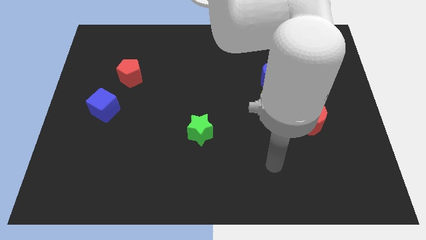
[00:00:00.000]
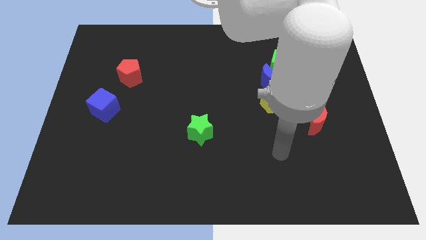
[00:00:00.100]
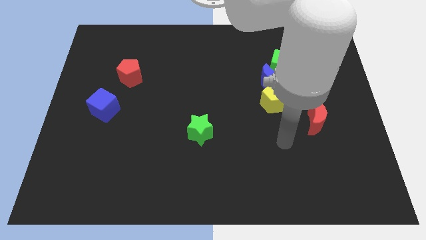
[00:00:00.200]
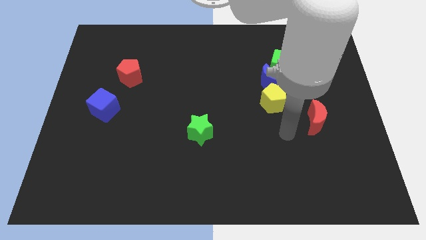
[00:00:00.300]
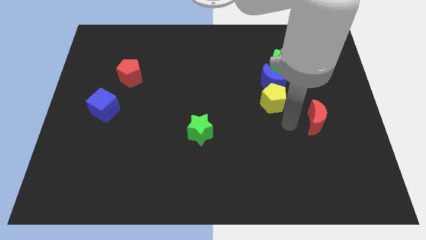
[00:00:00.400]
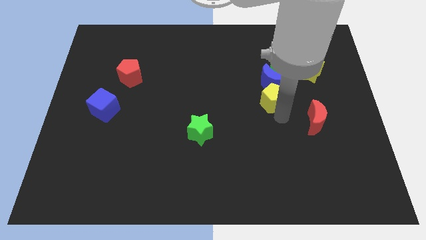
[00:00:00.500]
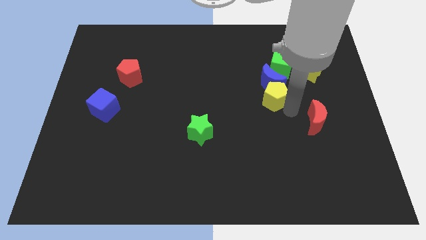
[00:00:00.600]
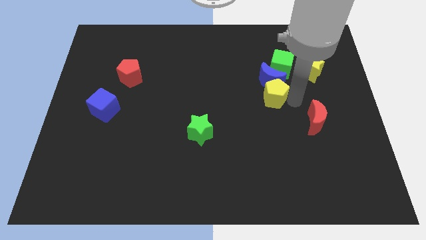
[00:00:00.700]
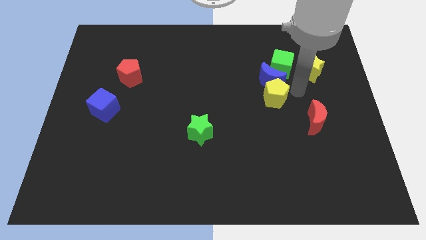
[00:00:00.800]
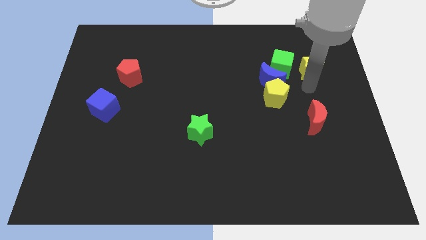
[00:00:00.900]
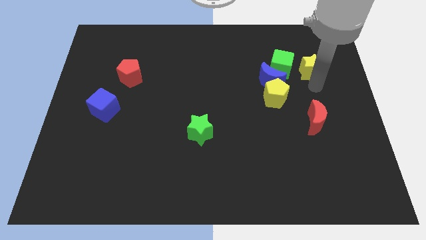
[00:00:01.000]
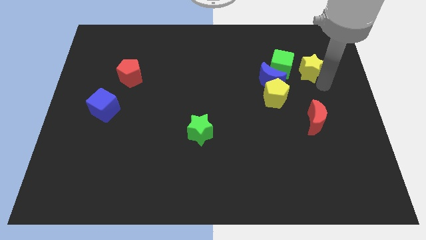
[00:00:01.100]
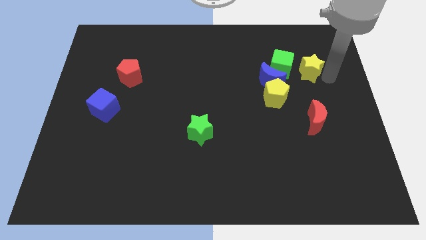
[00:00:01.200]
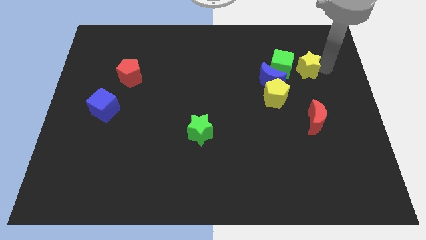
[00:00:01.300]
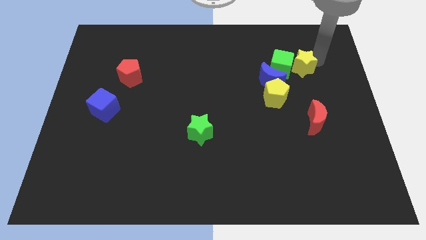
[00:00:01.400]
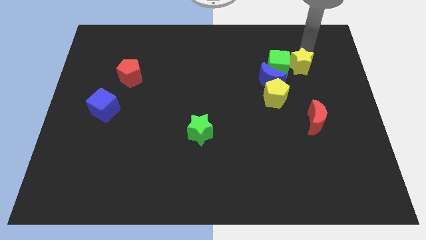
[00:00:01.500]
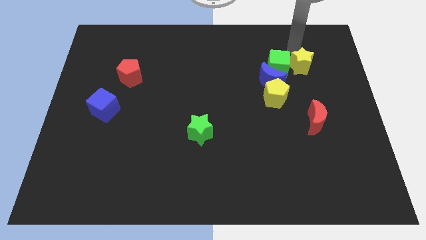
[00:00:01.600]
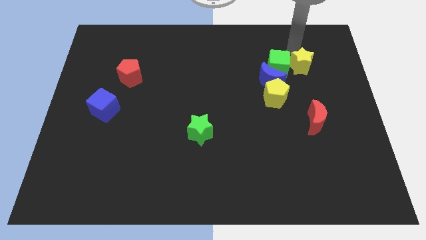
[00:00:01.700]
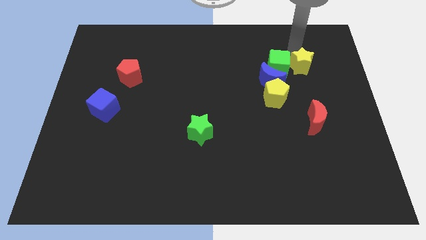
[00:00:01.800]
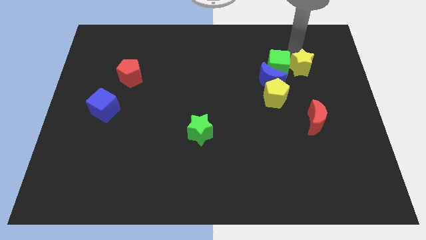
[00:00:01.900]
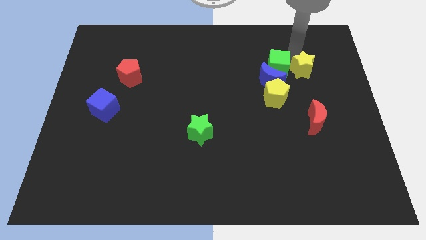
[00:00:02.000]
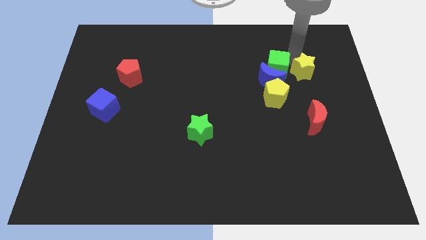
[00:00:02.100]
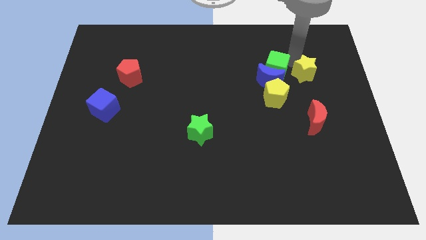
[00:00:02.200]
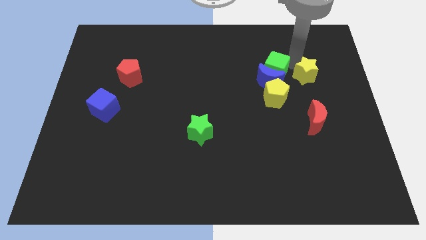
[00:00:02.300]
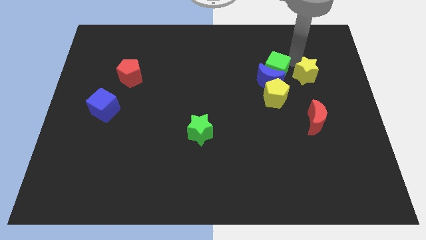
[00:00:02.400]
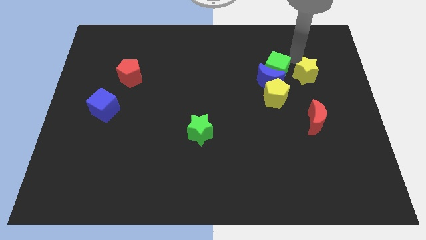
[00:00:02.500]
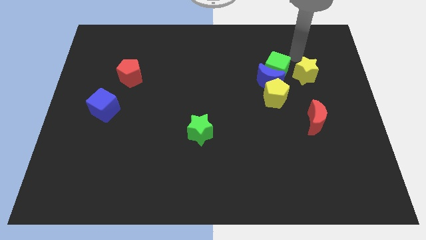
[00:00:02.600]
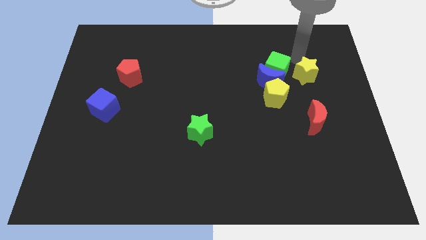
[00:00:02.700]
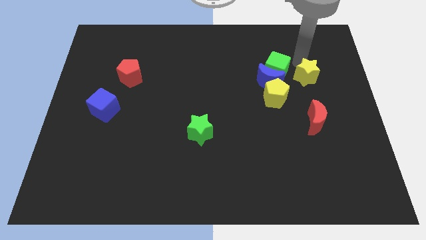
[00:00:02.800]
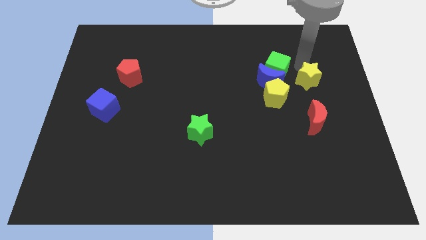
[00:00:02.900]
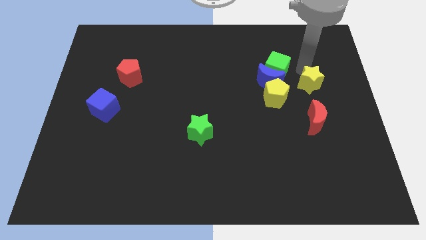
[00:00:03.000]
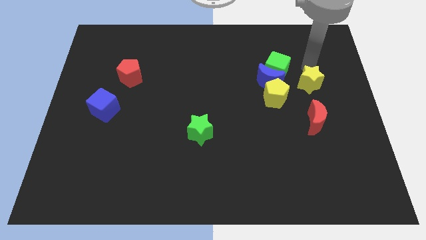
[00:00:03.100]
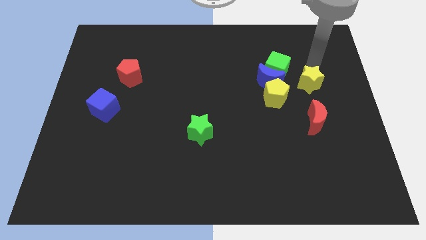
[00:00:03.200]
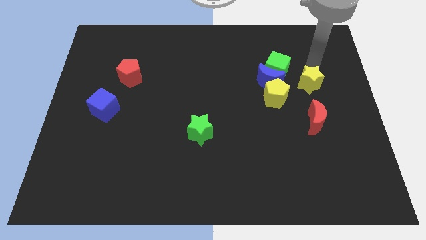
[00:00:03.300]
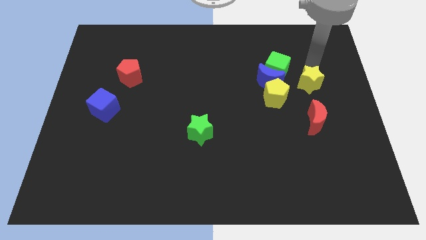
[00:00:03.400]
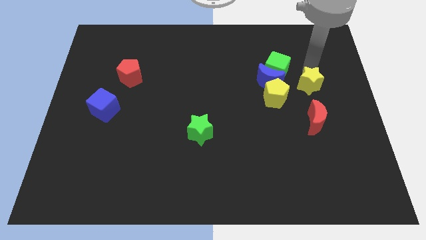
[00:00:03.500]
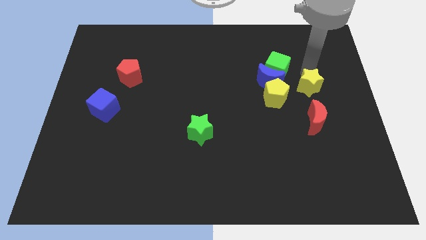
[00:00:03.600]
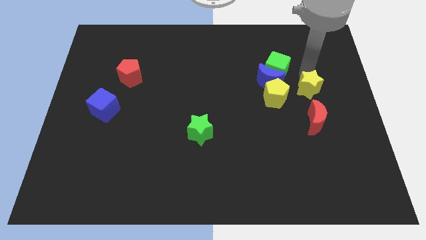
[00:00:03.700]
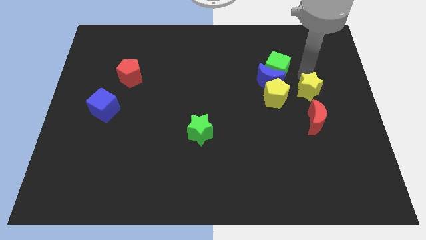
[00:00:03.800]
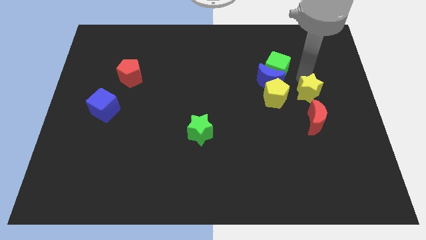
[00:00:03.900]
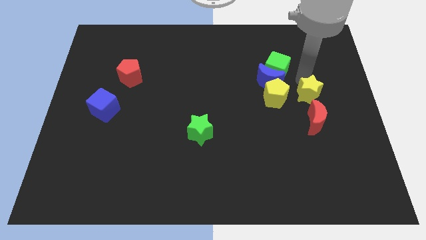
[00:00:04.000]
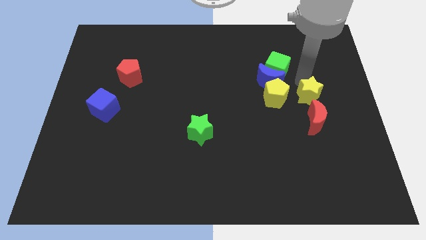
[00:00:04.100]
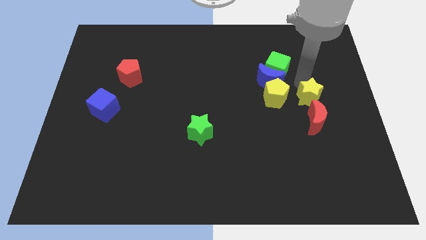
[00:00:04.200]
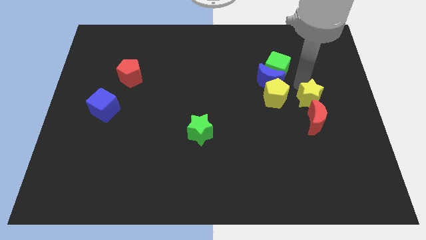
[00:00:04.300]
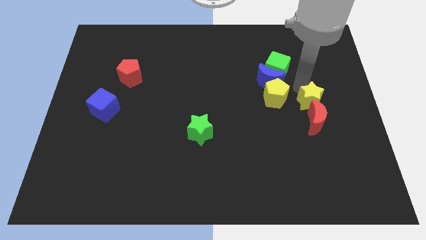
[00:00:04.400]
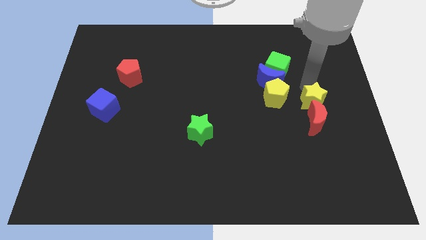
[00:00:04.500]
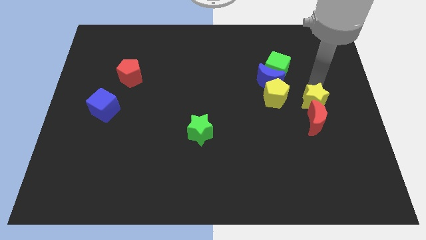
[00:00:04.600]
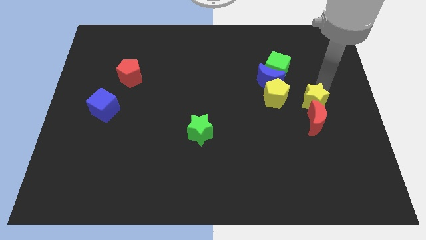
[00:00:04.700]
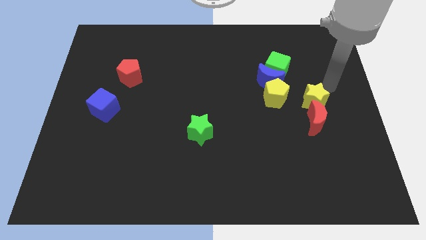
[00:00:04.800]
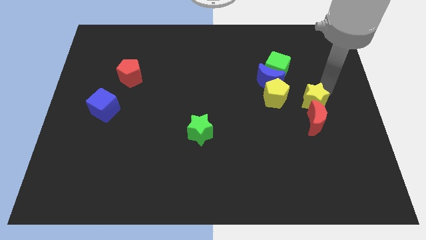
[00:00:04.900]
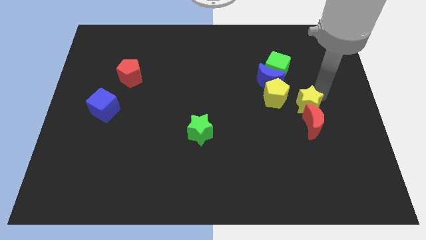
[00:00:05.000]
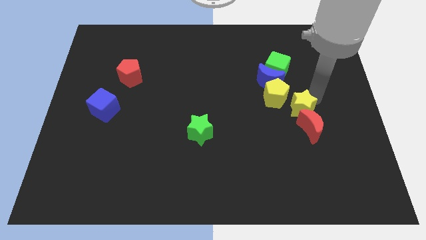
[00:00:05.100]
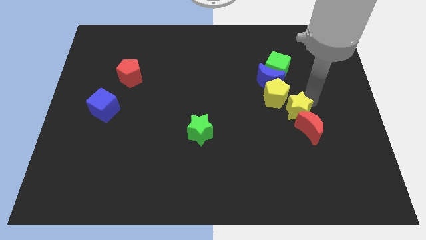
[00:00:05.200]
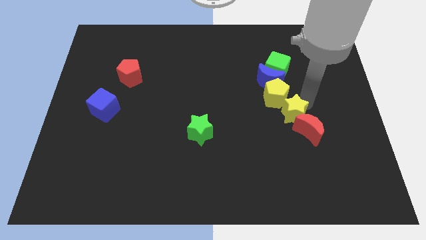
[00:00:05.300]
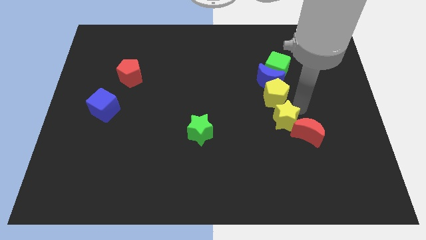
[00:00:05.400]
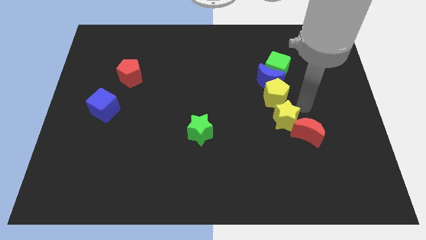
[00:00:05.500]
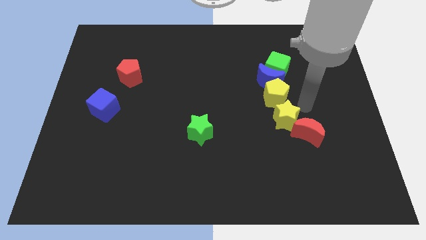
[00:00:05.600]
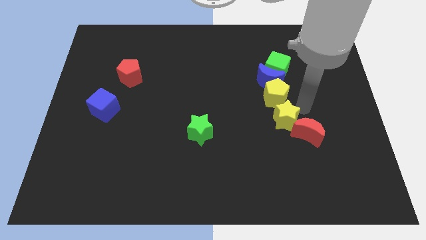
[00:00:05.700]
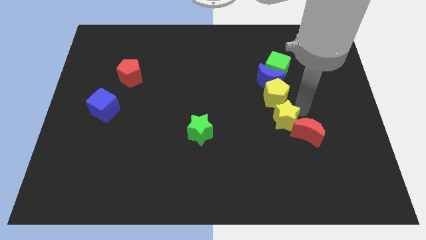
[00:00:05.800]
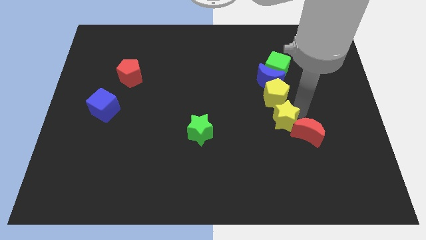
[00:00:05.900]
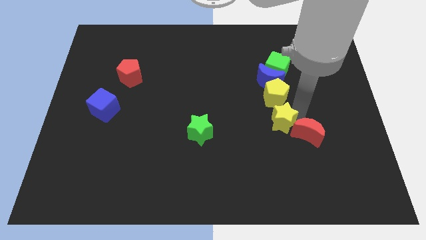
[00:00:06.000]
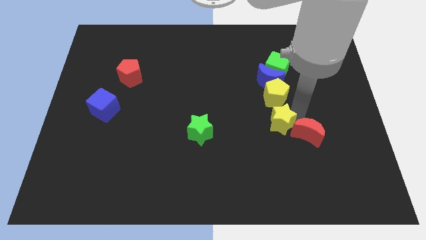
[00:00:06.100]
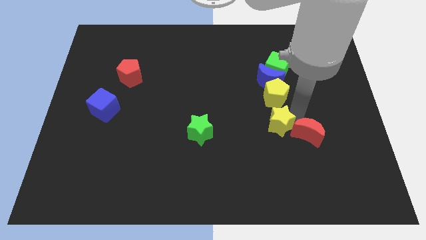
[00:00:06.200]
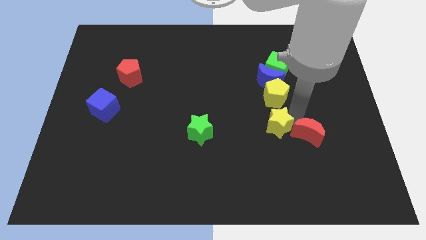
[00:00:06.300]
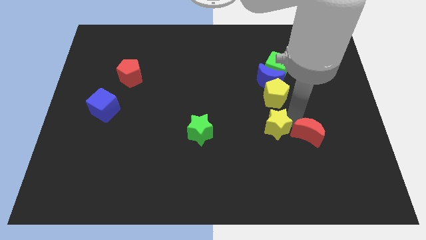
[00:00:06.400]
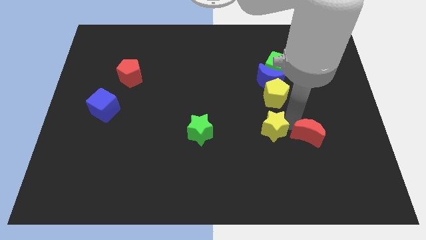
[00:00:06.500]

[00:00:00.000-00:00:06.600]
slide the yellow star down and to the left

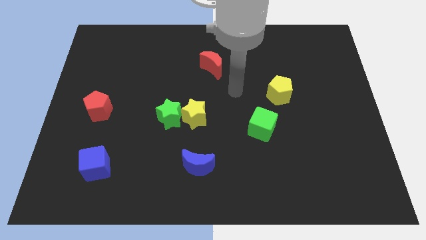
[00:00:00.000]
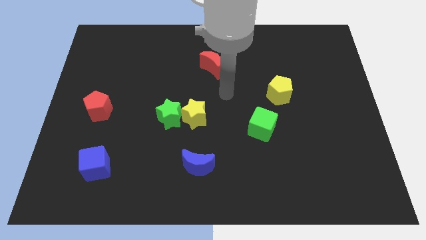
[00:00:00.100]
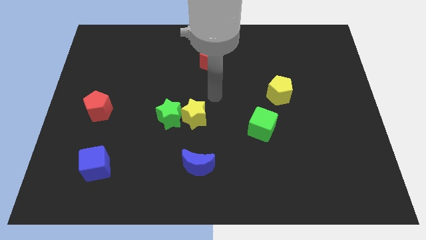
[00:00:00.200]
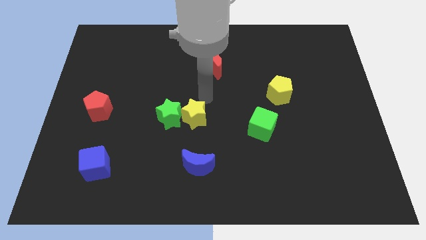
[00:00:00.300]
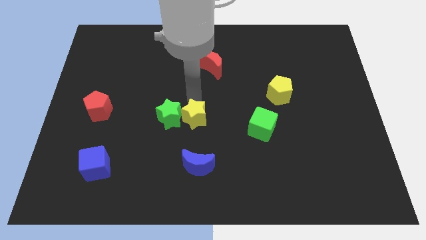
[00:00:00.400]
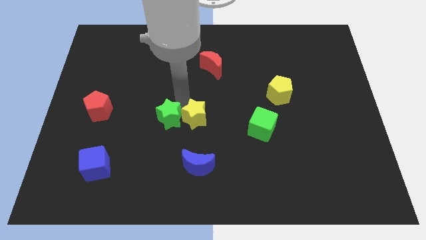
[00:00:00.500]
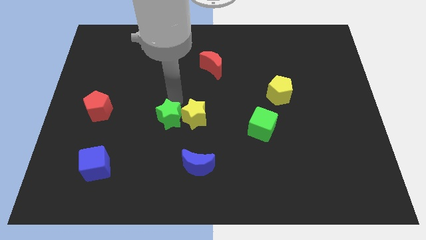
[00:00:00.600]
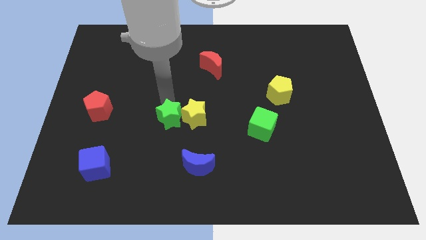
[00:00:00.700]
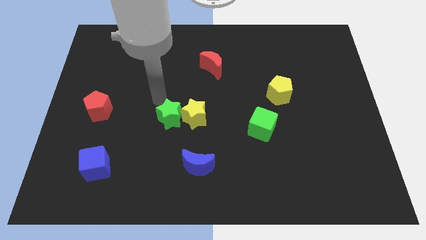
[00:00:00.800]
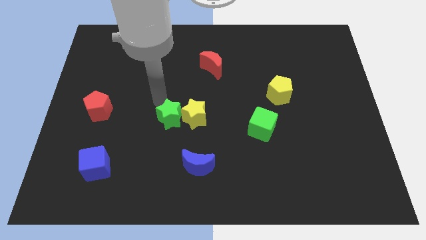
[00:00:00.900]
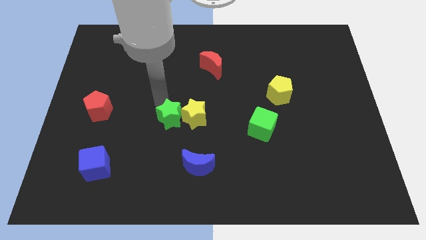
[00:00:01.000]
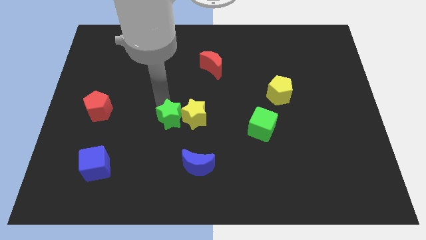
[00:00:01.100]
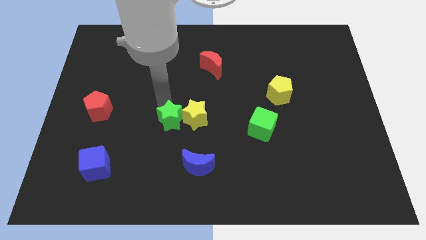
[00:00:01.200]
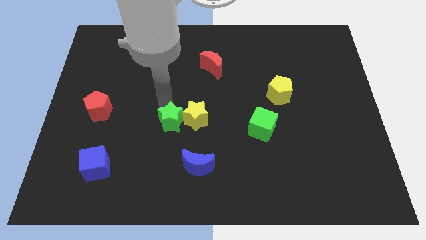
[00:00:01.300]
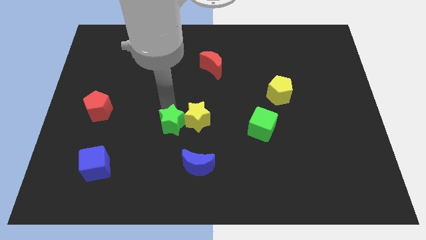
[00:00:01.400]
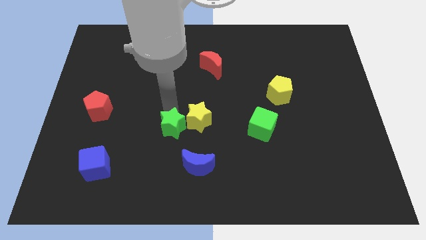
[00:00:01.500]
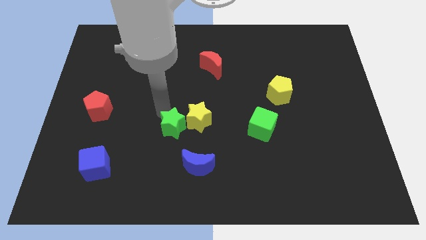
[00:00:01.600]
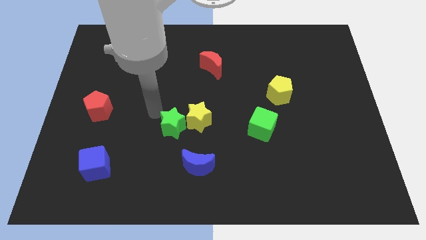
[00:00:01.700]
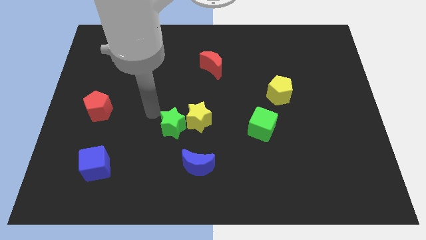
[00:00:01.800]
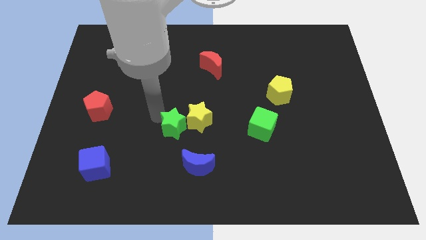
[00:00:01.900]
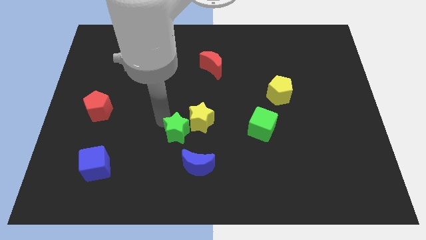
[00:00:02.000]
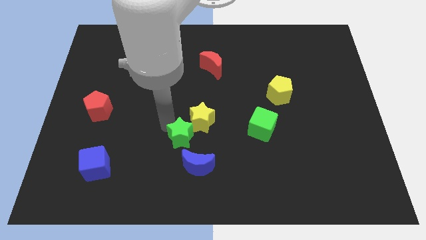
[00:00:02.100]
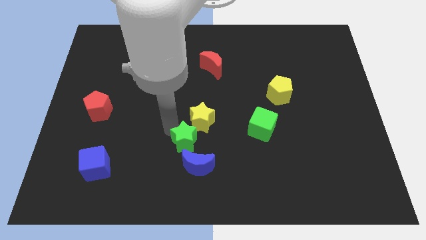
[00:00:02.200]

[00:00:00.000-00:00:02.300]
move the green star a little bit diagonally downwards and right
